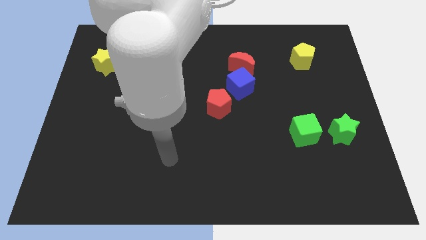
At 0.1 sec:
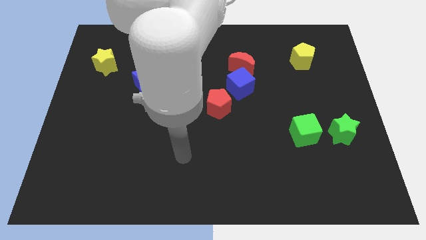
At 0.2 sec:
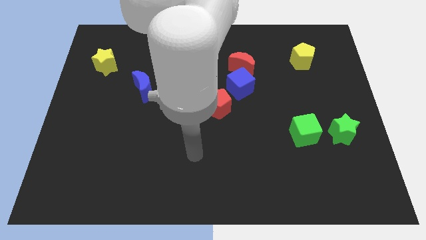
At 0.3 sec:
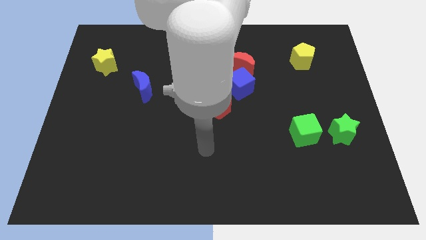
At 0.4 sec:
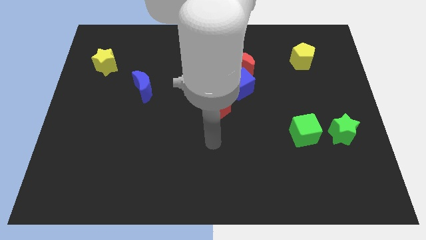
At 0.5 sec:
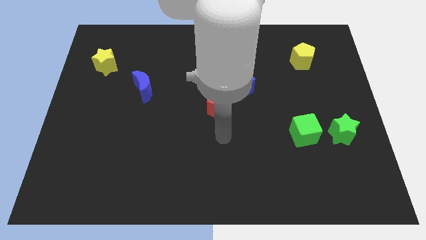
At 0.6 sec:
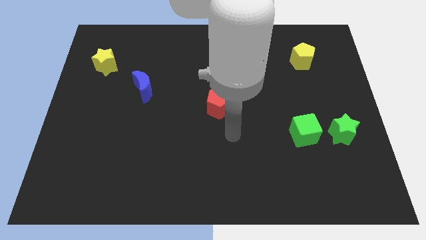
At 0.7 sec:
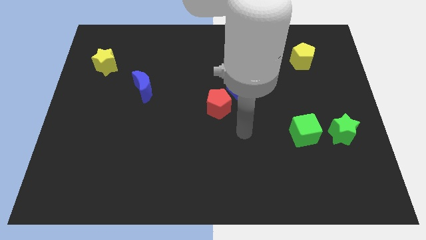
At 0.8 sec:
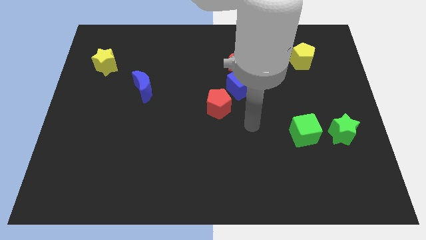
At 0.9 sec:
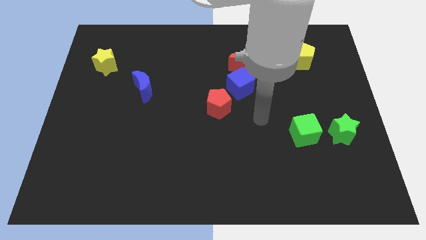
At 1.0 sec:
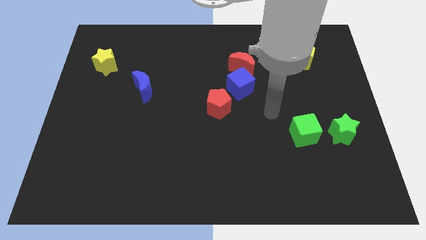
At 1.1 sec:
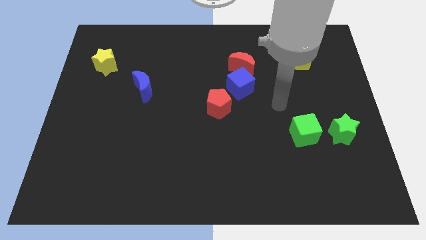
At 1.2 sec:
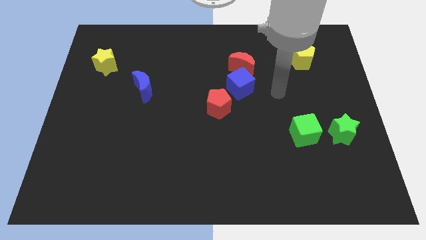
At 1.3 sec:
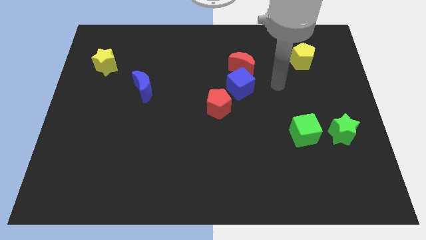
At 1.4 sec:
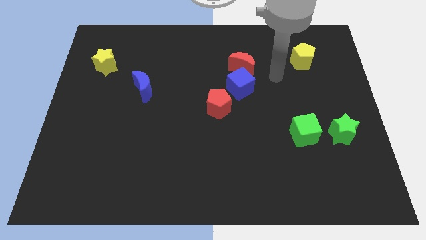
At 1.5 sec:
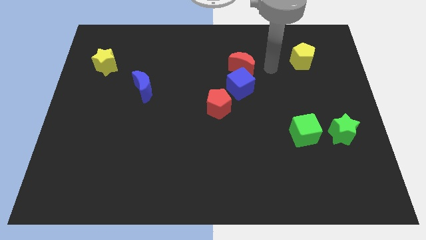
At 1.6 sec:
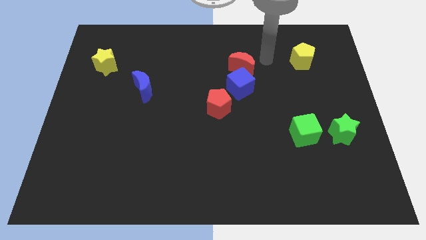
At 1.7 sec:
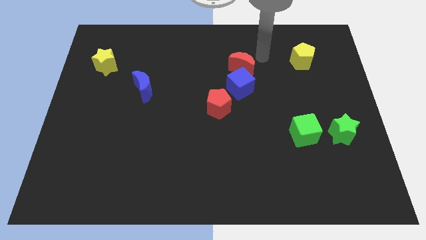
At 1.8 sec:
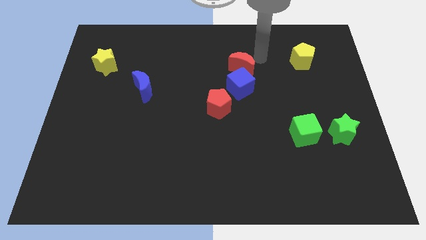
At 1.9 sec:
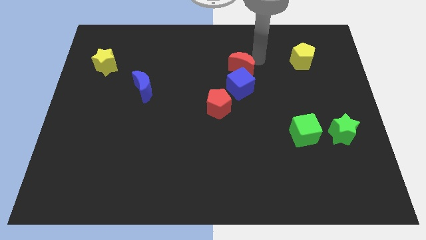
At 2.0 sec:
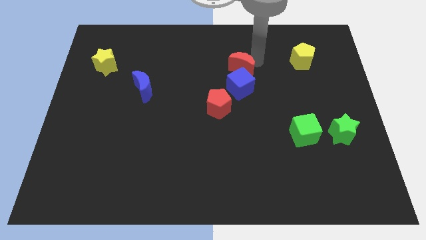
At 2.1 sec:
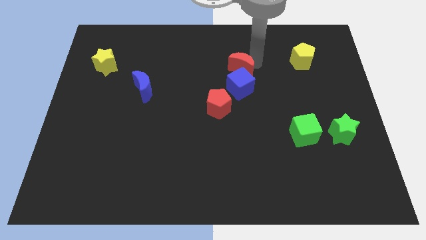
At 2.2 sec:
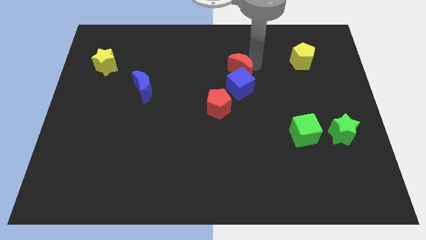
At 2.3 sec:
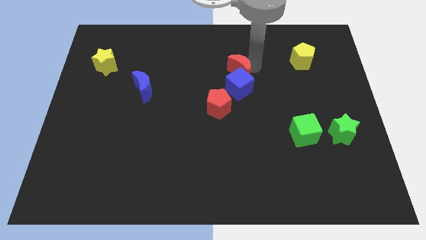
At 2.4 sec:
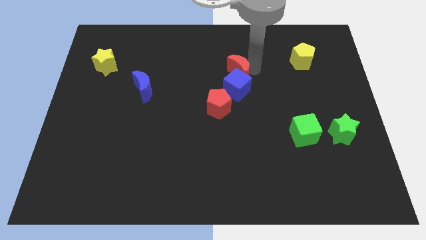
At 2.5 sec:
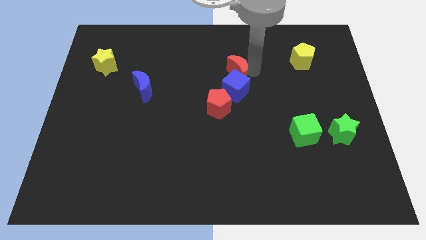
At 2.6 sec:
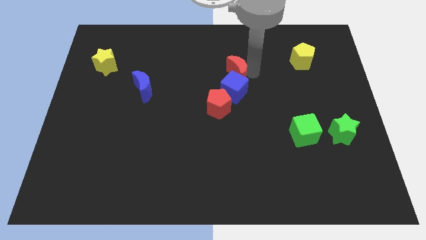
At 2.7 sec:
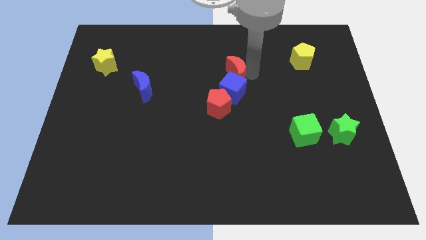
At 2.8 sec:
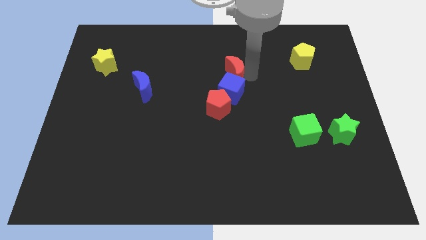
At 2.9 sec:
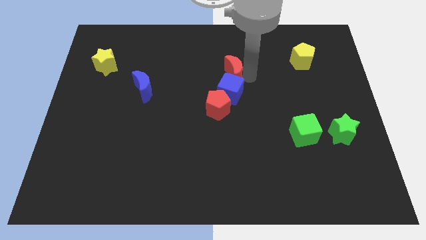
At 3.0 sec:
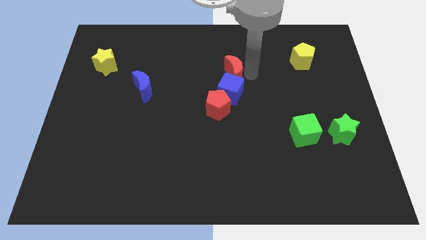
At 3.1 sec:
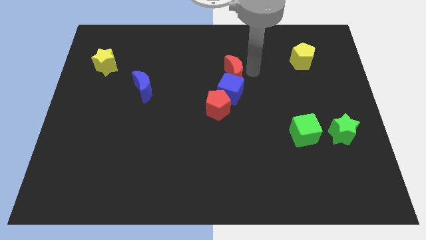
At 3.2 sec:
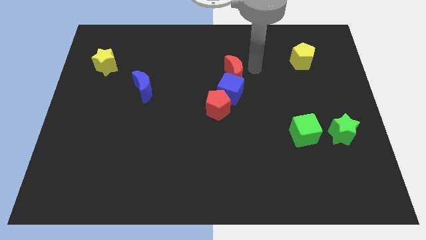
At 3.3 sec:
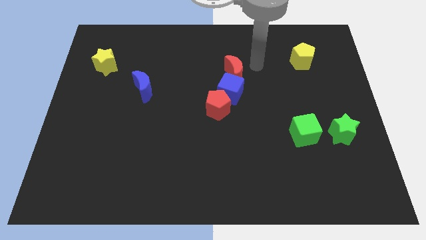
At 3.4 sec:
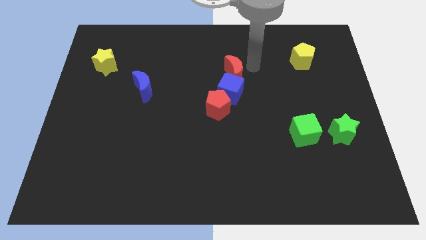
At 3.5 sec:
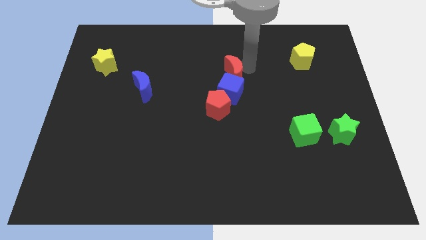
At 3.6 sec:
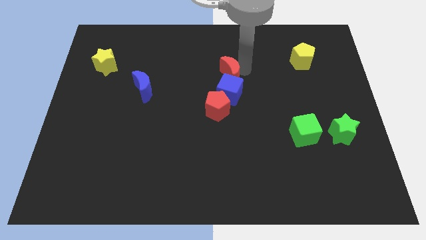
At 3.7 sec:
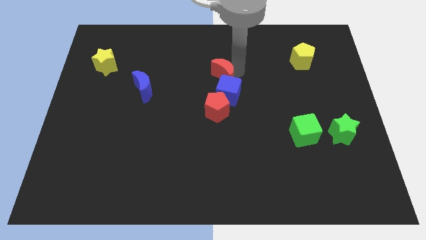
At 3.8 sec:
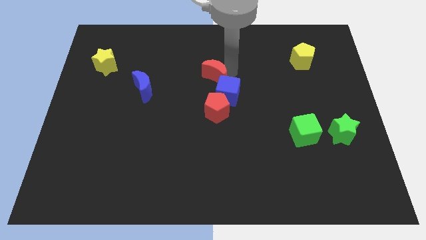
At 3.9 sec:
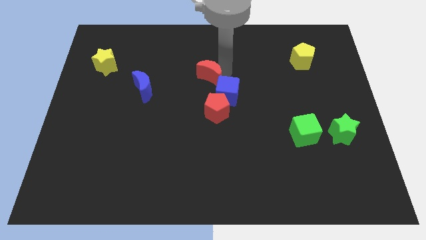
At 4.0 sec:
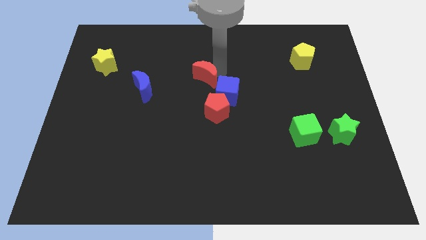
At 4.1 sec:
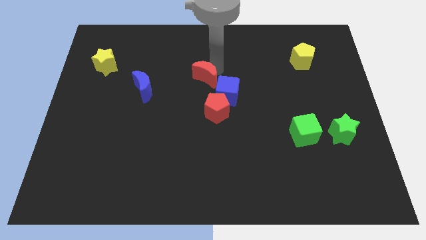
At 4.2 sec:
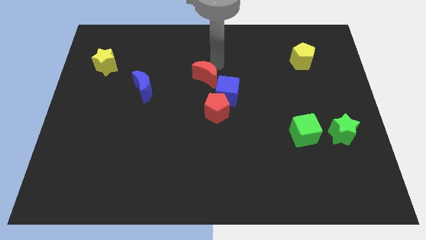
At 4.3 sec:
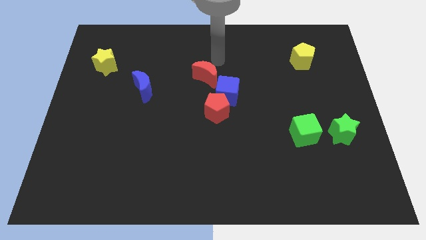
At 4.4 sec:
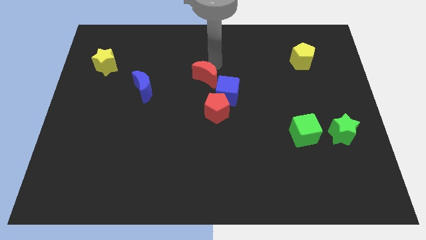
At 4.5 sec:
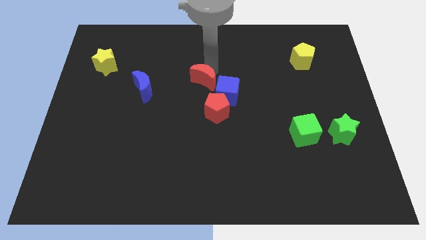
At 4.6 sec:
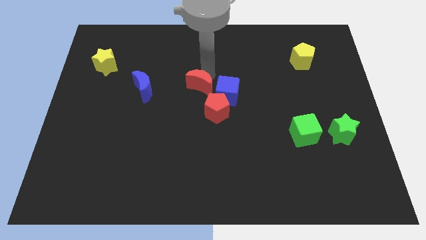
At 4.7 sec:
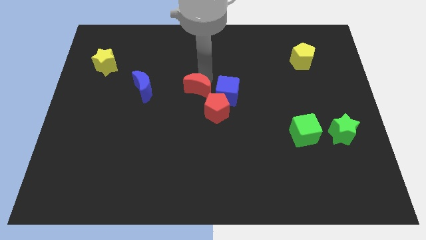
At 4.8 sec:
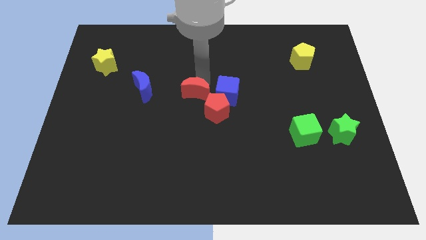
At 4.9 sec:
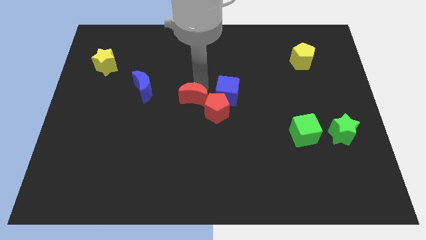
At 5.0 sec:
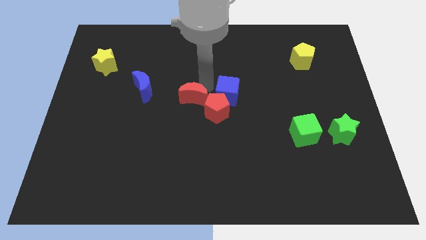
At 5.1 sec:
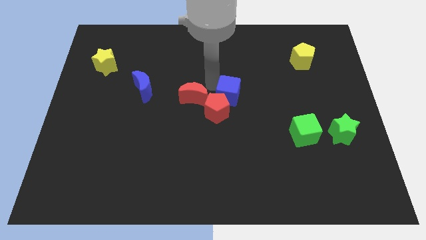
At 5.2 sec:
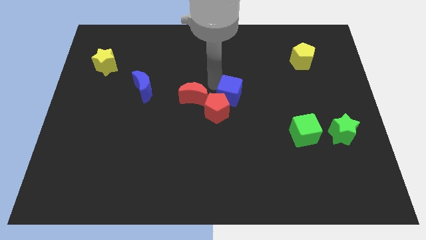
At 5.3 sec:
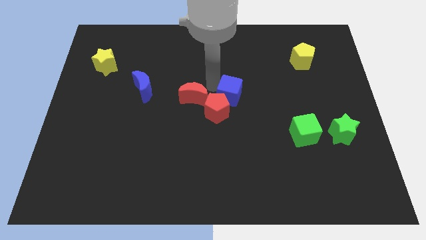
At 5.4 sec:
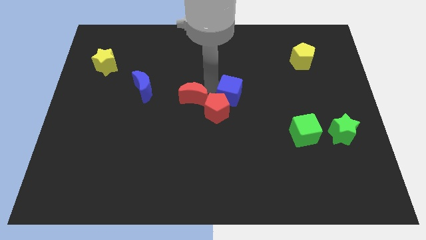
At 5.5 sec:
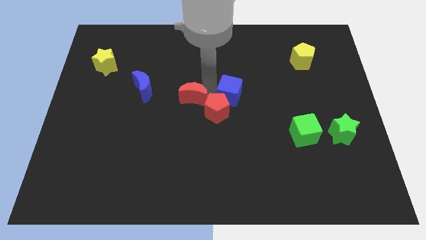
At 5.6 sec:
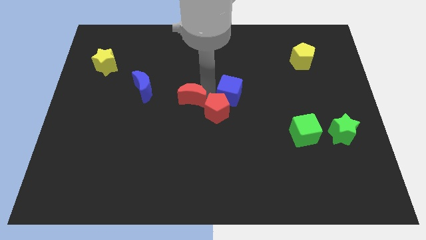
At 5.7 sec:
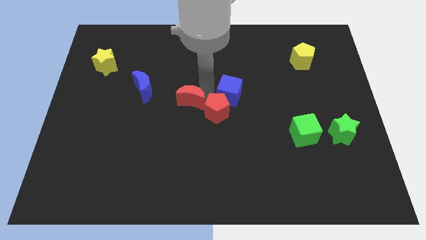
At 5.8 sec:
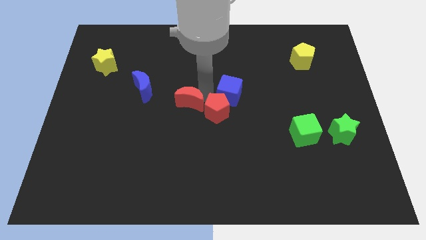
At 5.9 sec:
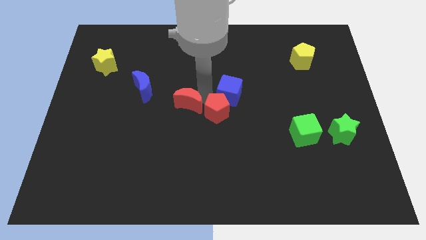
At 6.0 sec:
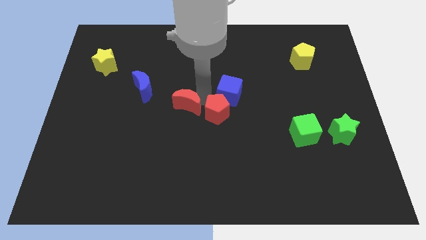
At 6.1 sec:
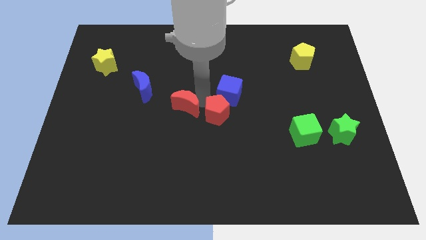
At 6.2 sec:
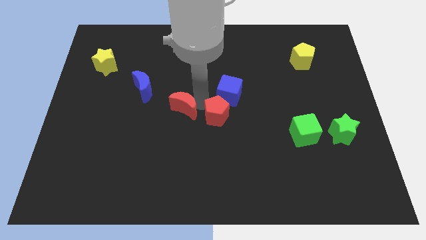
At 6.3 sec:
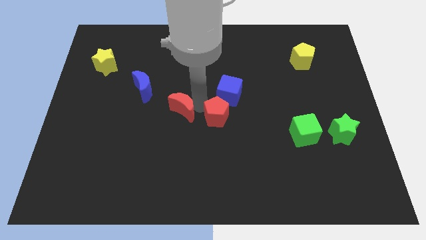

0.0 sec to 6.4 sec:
slide the red moon down and then left

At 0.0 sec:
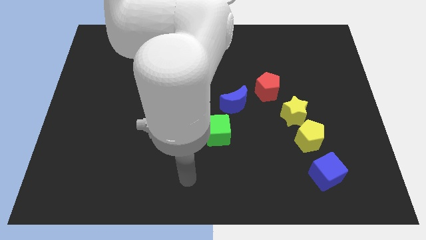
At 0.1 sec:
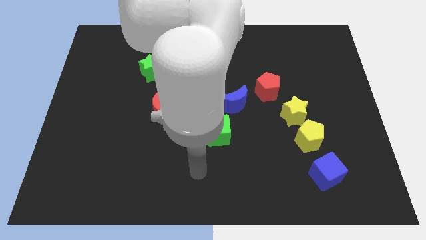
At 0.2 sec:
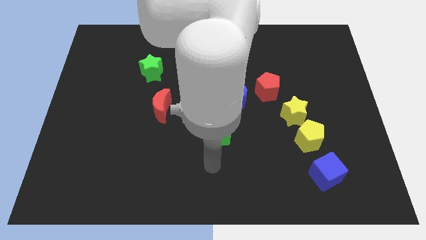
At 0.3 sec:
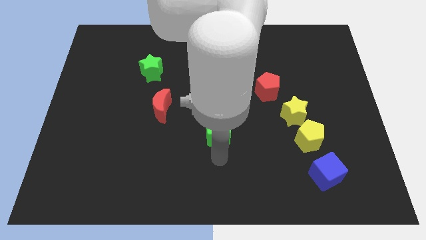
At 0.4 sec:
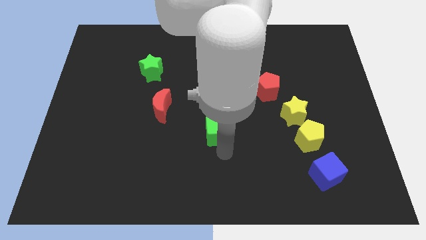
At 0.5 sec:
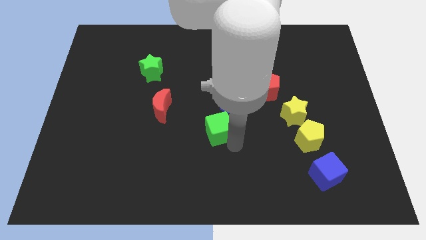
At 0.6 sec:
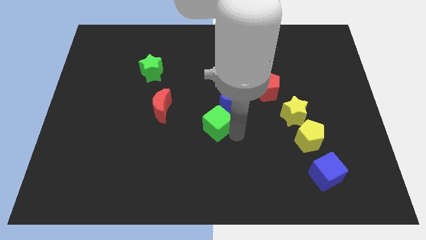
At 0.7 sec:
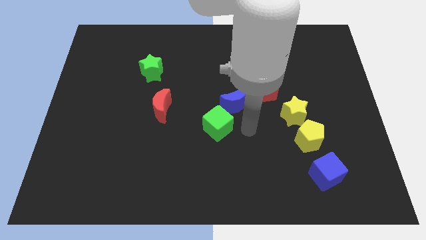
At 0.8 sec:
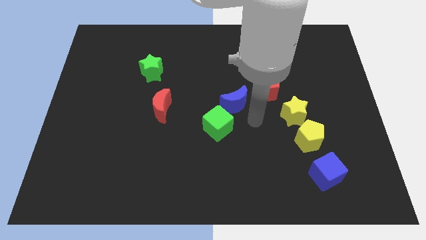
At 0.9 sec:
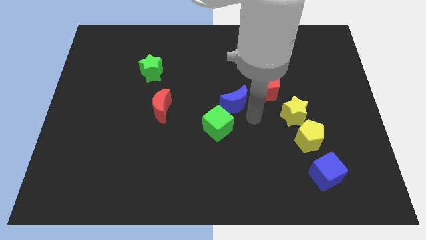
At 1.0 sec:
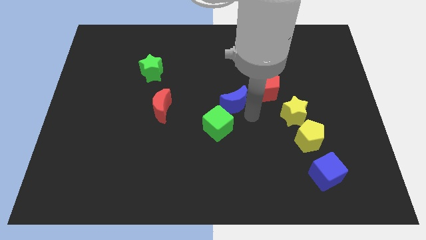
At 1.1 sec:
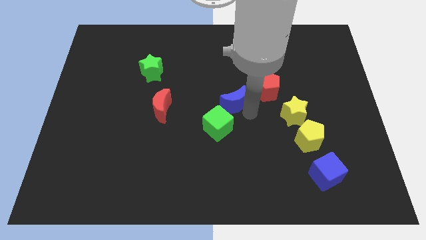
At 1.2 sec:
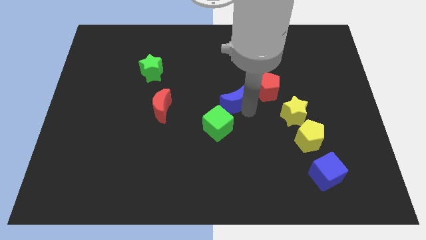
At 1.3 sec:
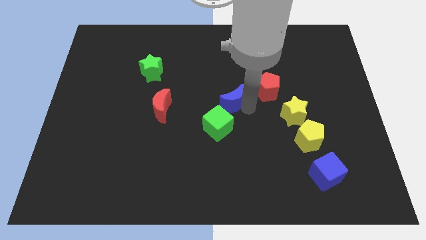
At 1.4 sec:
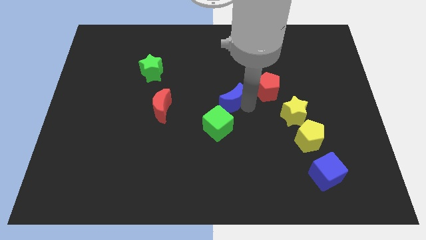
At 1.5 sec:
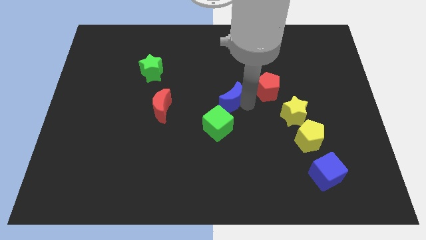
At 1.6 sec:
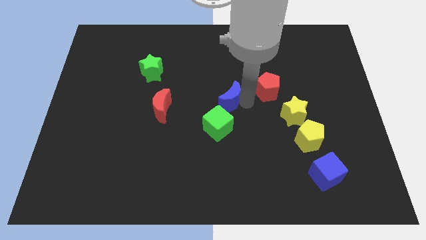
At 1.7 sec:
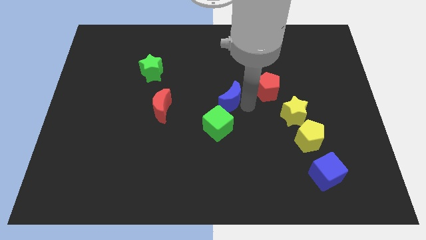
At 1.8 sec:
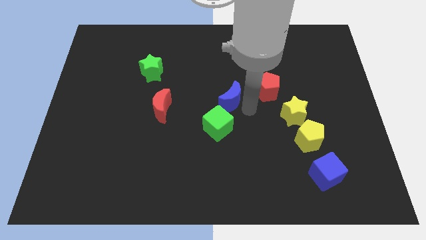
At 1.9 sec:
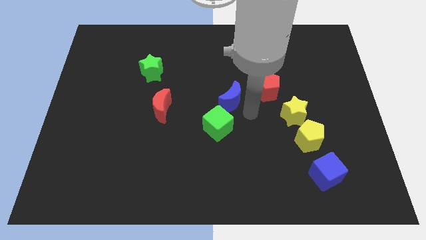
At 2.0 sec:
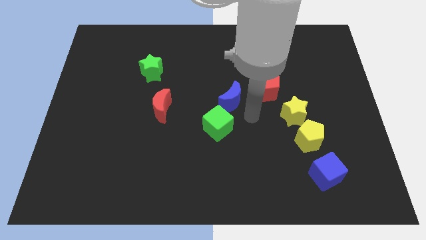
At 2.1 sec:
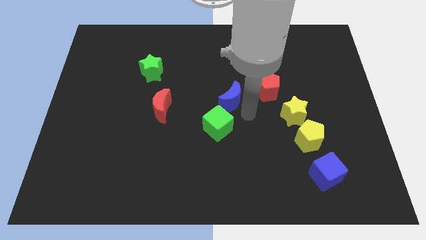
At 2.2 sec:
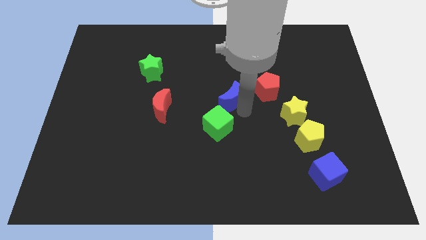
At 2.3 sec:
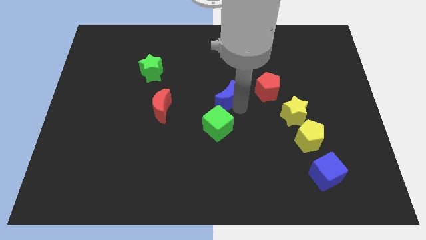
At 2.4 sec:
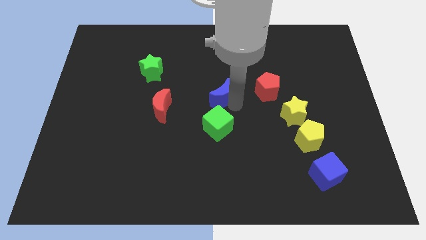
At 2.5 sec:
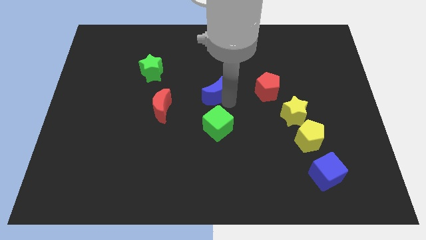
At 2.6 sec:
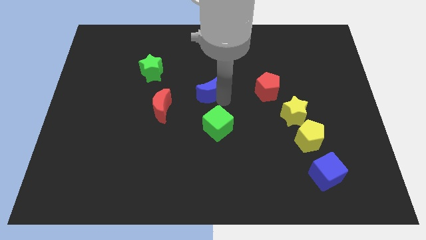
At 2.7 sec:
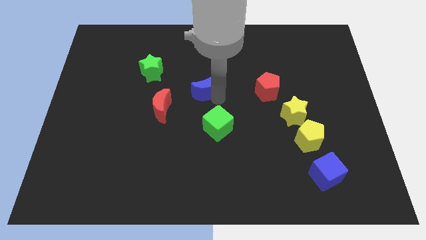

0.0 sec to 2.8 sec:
slide the blue moon up and to the left a little
